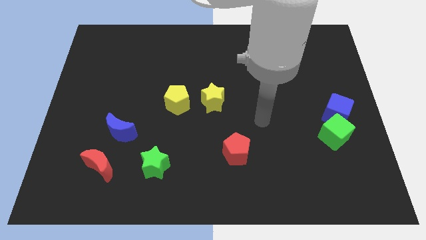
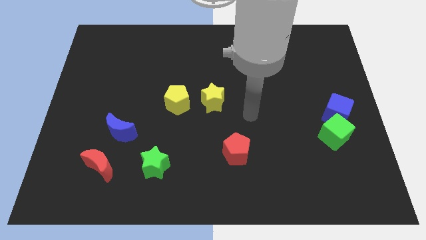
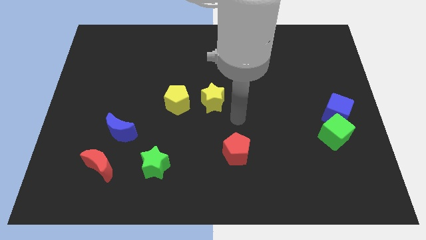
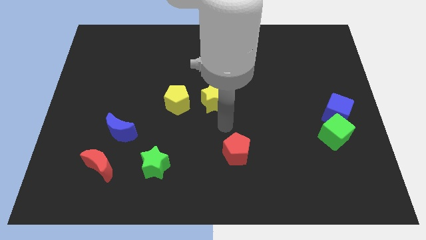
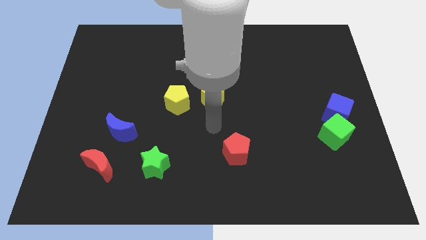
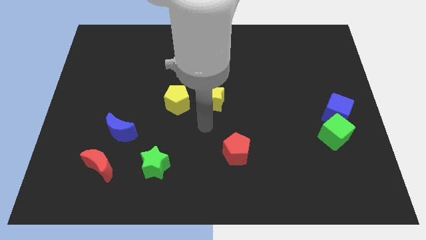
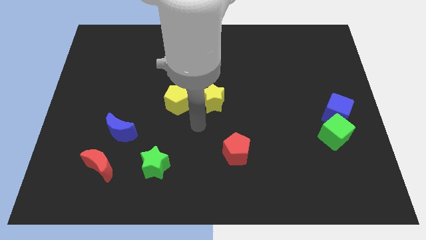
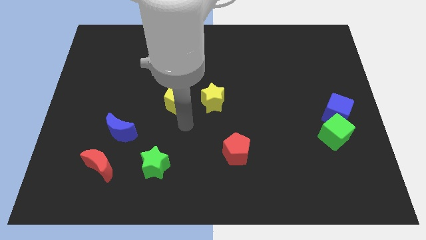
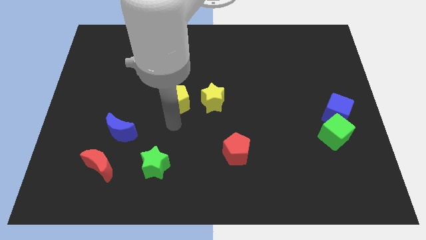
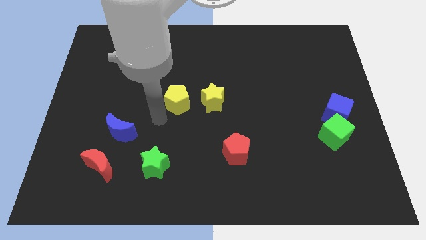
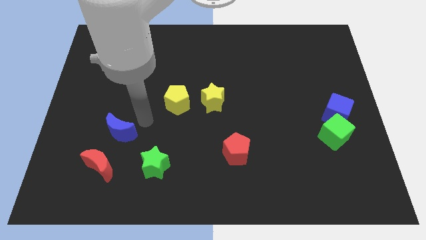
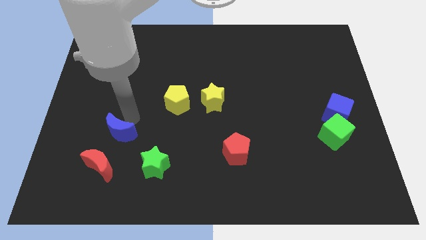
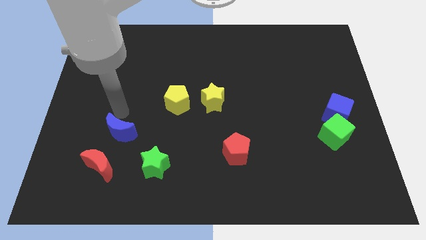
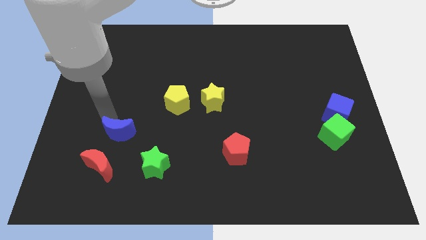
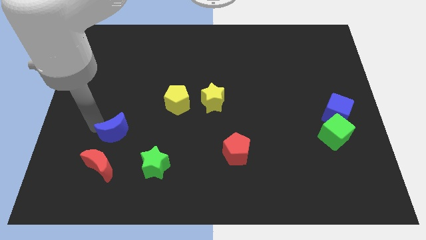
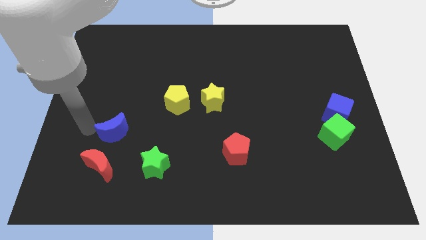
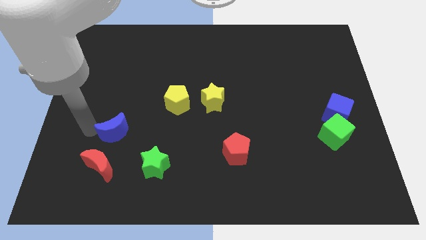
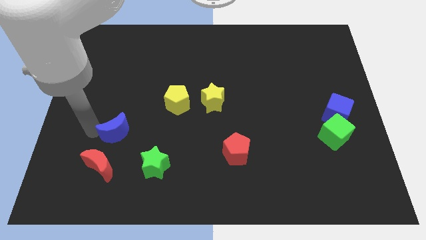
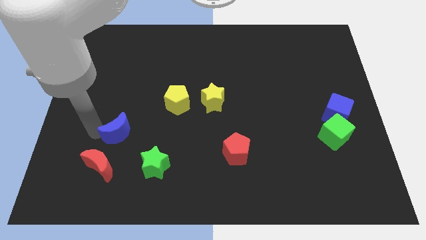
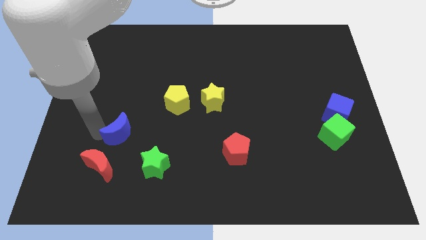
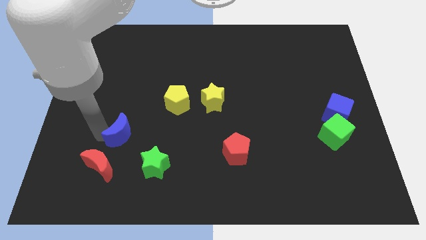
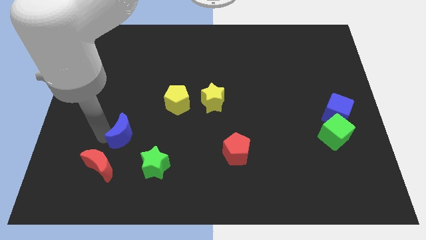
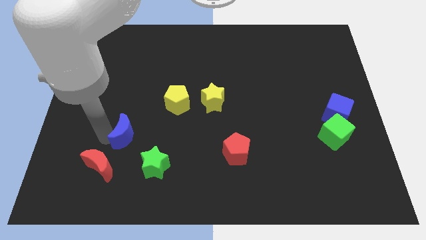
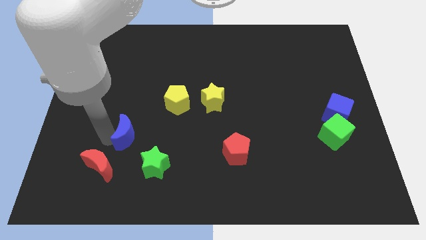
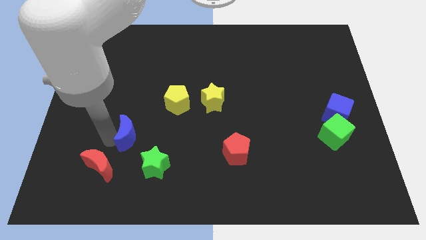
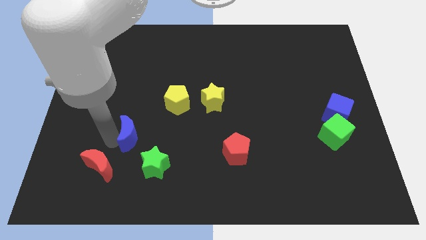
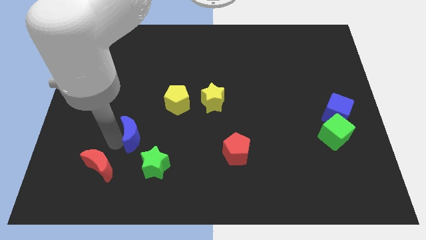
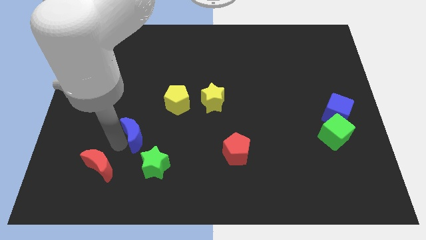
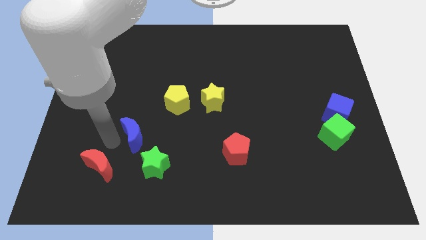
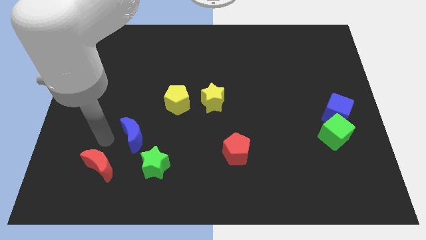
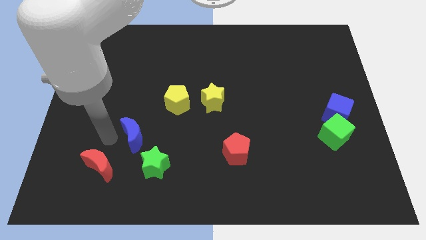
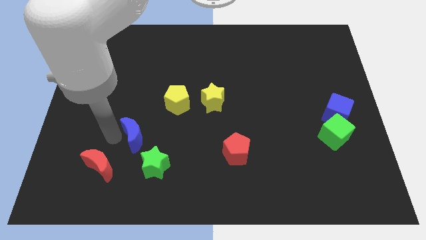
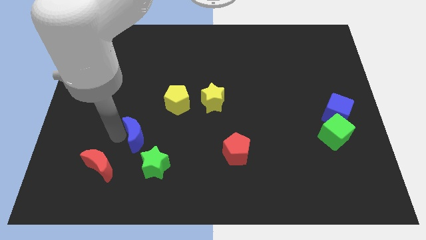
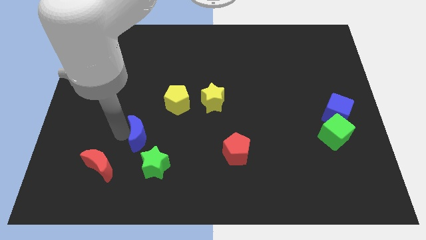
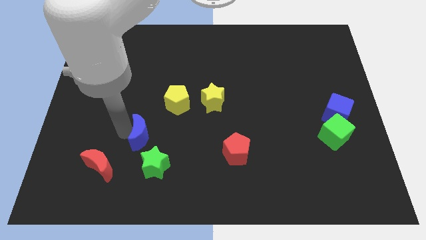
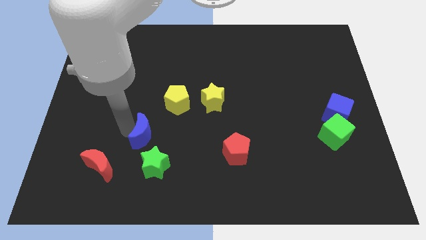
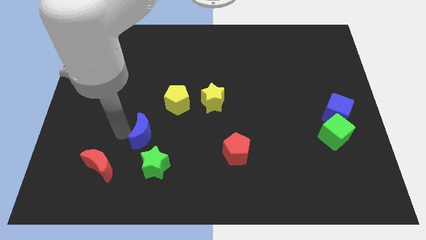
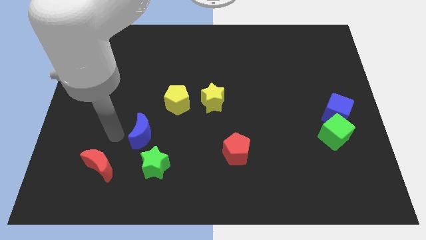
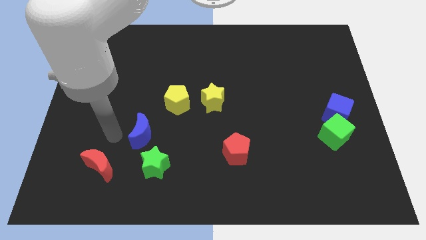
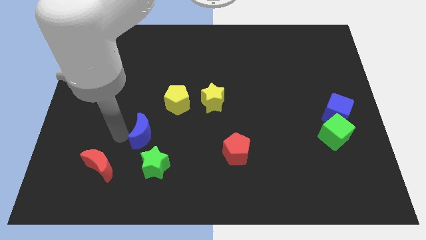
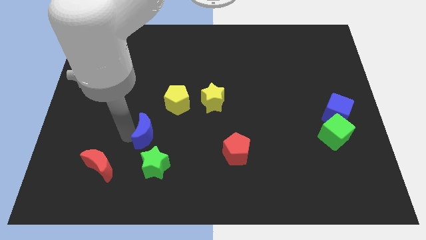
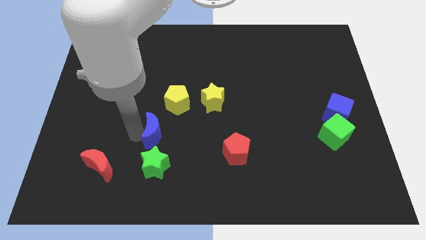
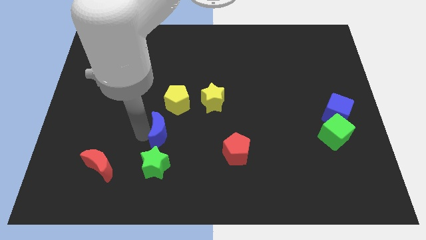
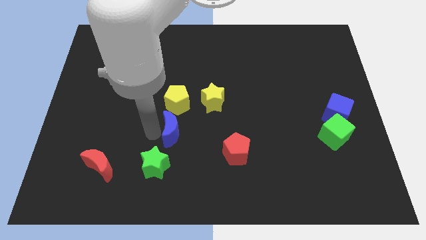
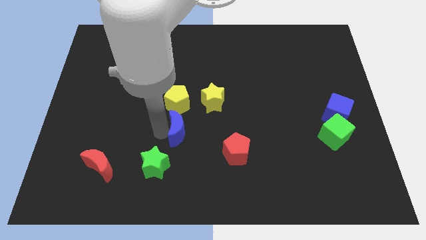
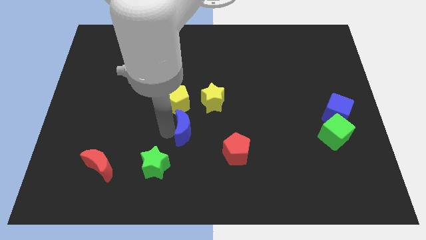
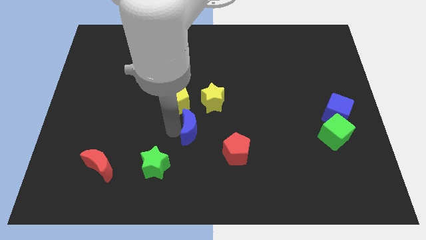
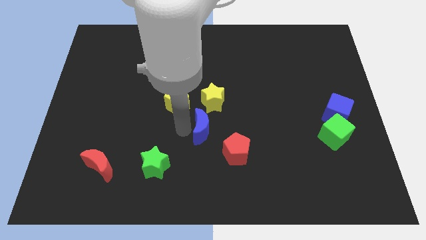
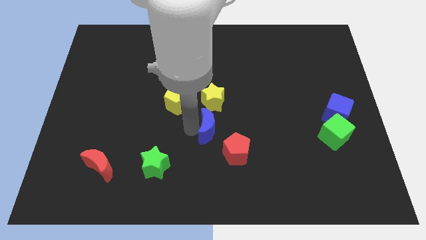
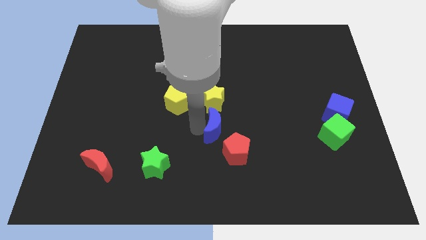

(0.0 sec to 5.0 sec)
move the blue moon right

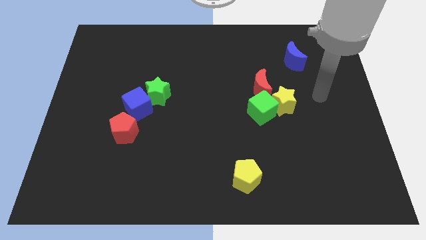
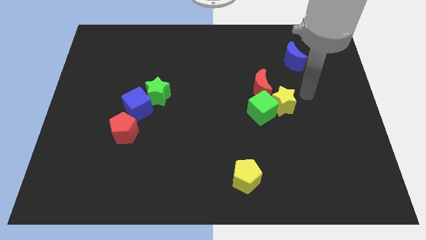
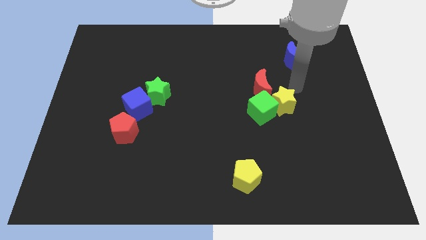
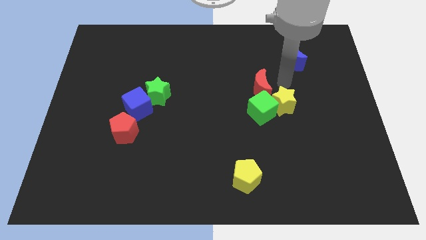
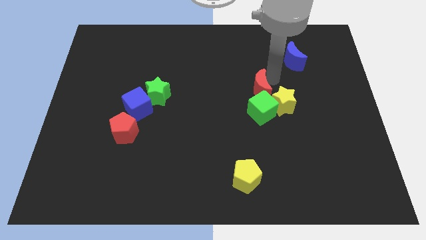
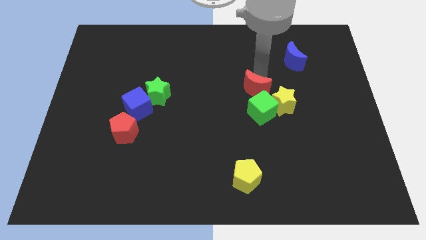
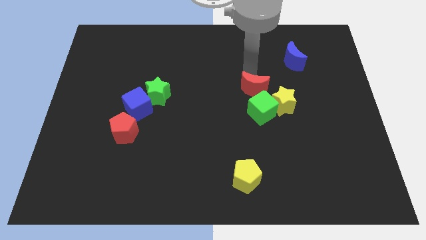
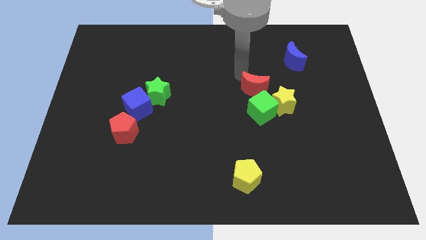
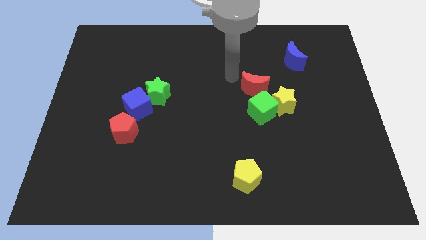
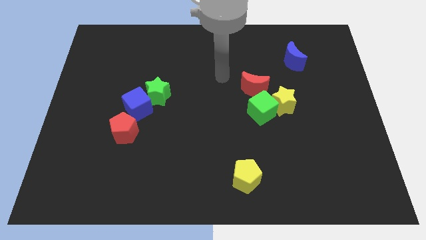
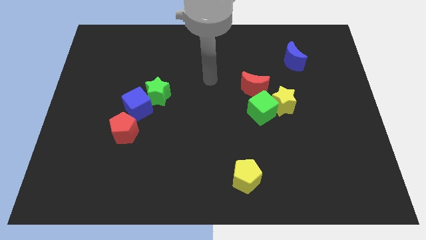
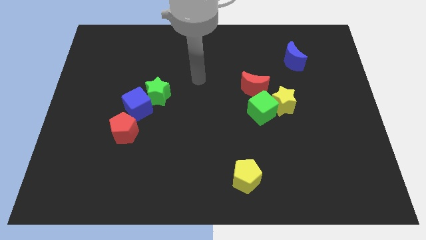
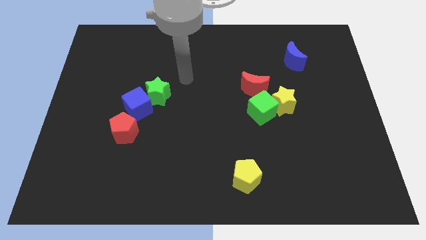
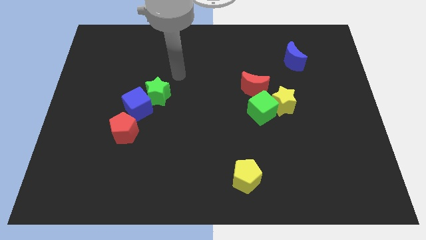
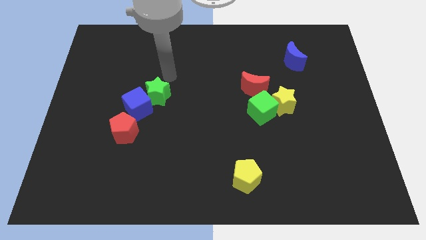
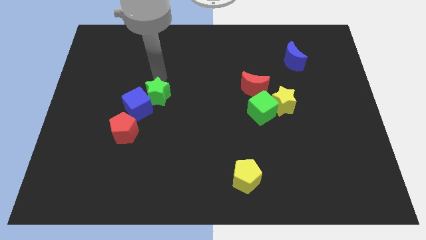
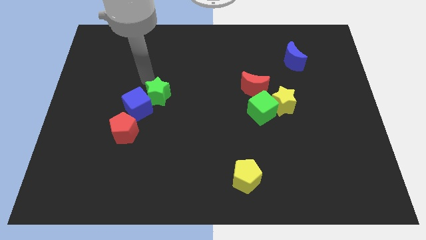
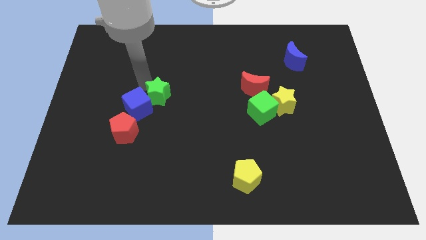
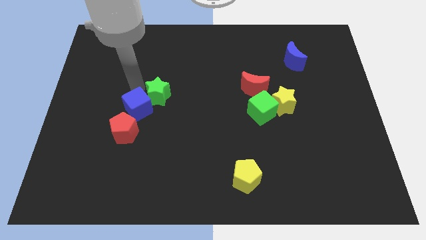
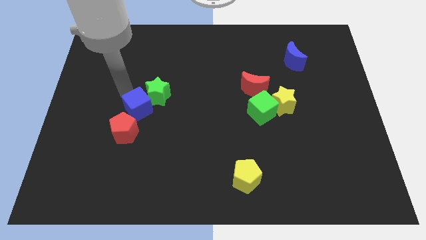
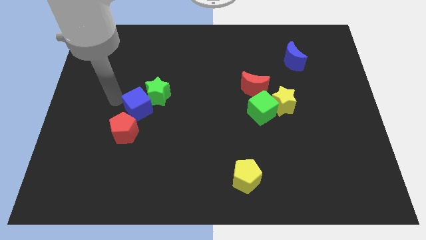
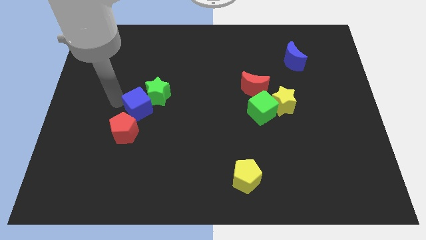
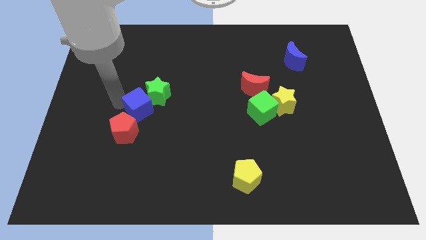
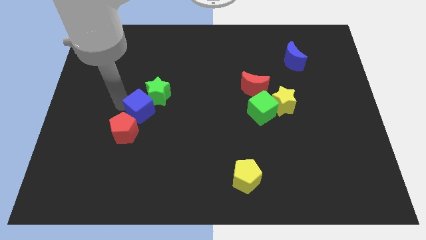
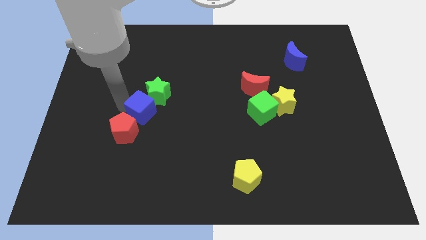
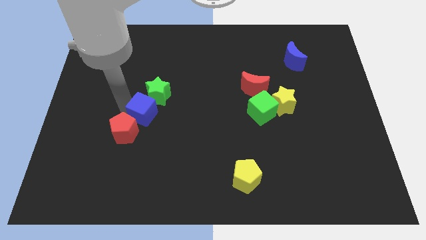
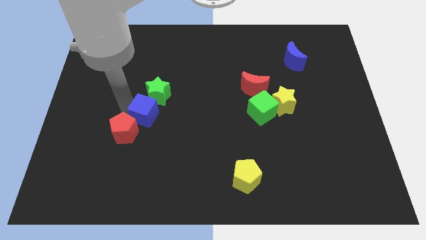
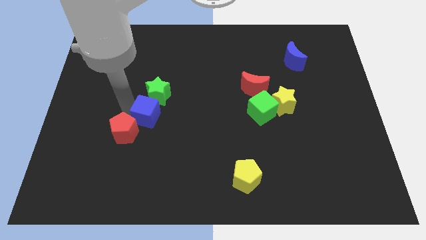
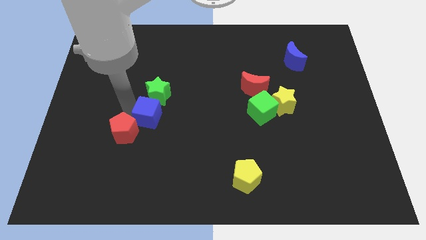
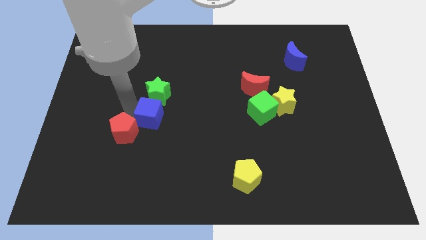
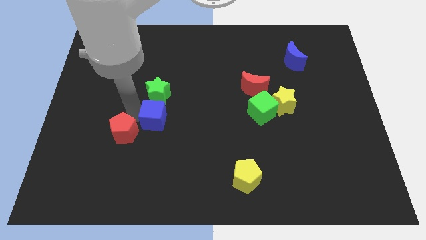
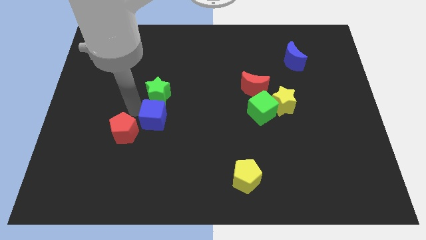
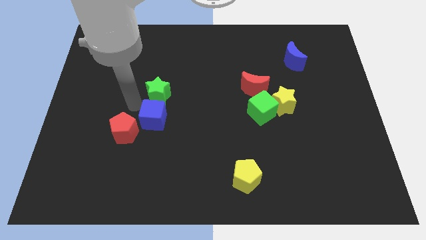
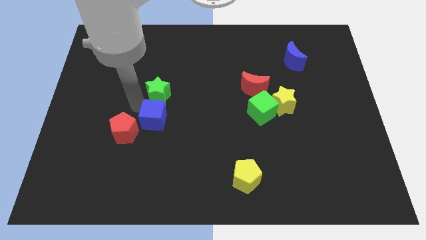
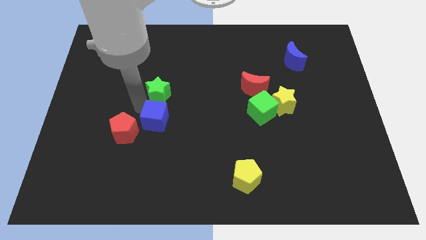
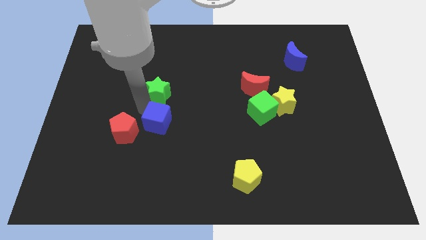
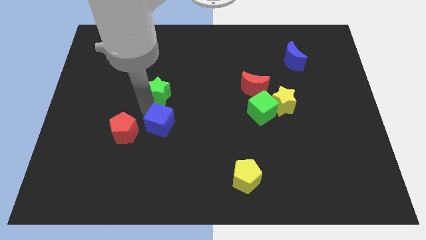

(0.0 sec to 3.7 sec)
slide the blue cube downwards and right somewhat
